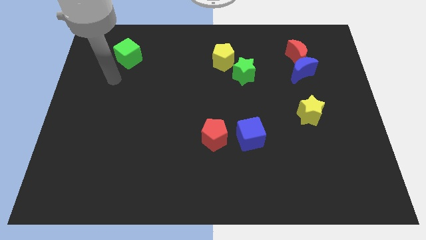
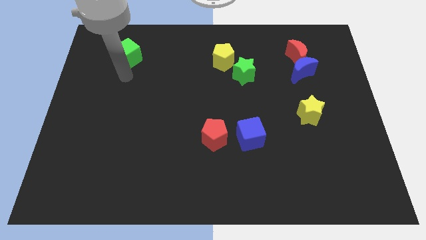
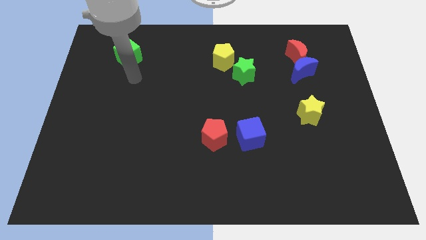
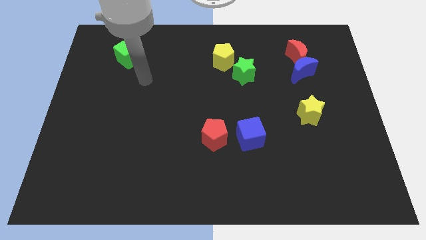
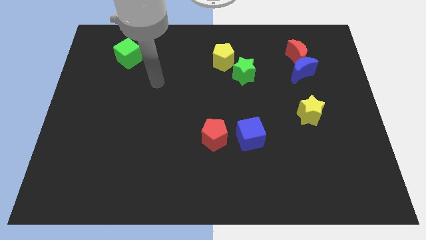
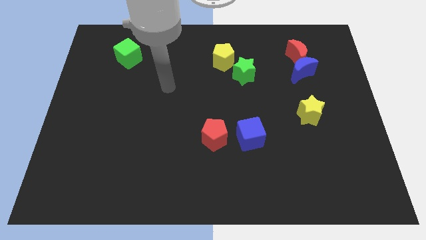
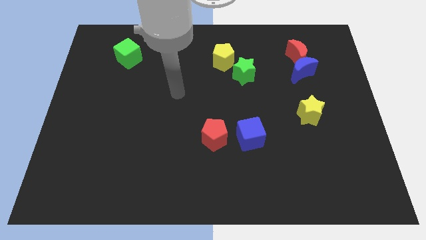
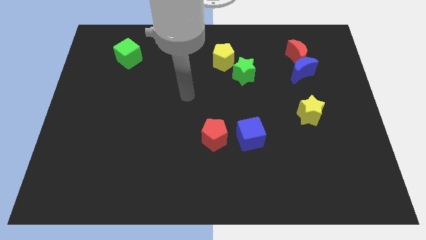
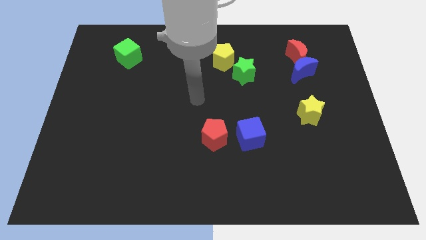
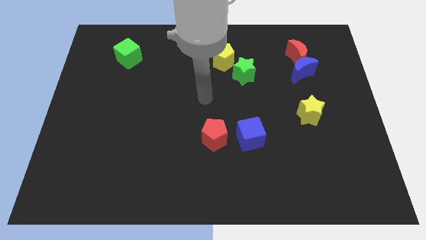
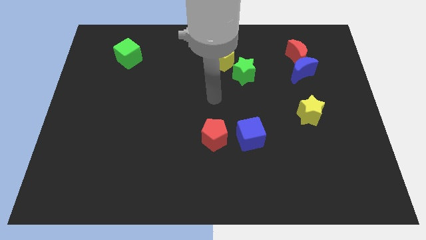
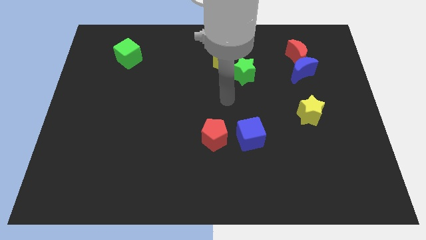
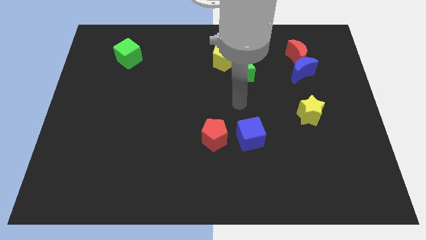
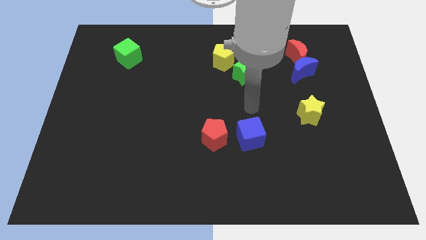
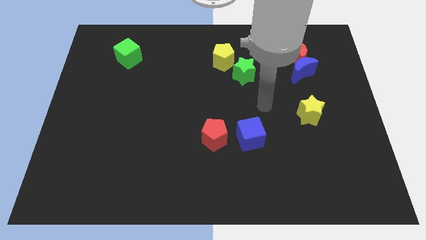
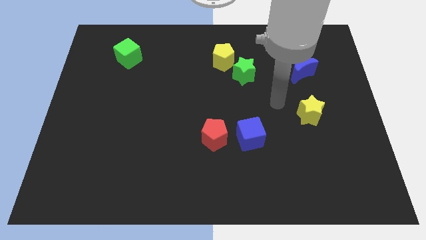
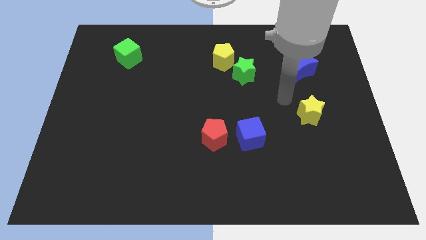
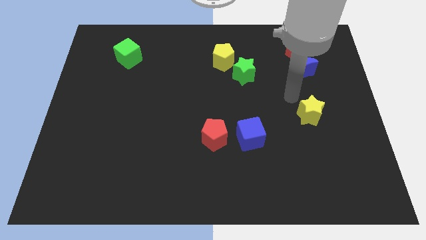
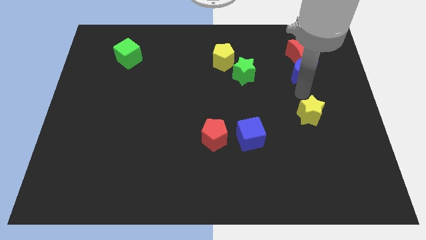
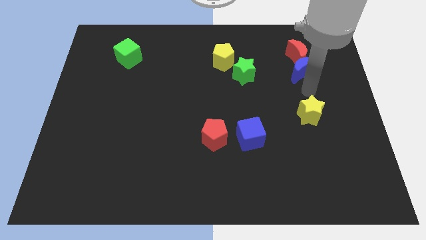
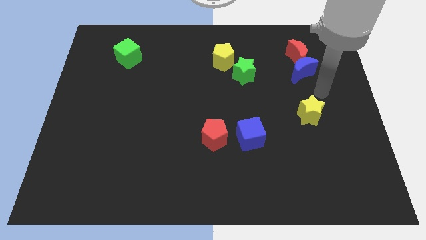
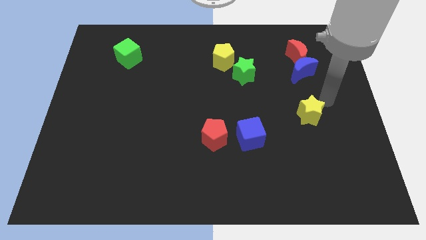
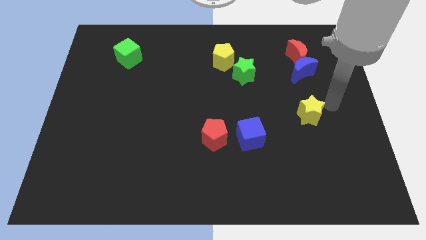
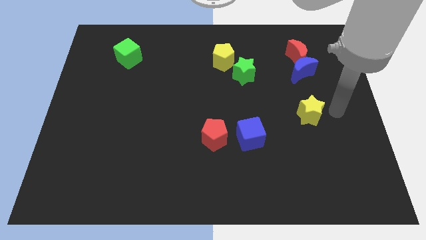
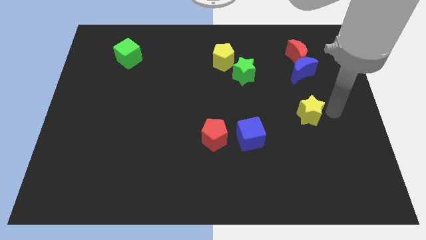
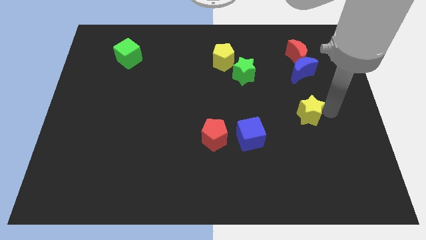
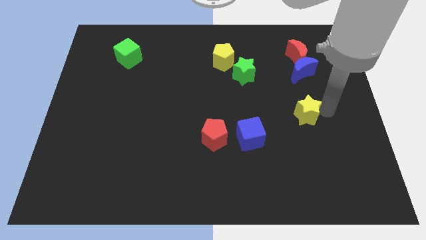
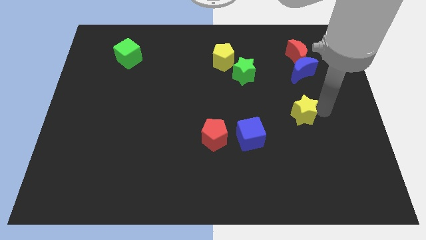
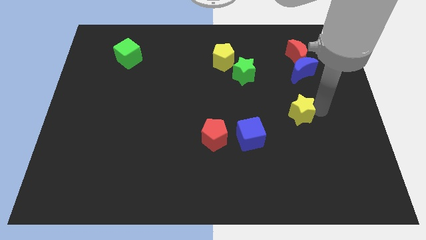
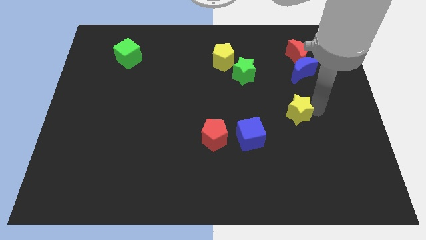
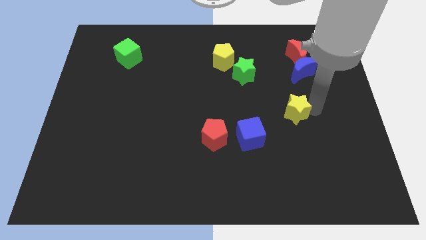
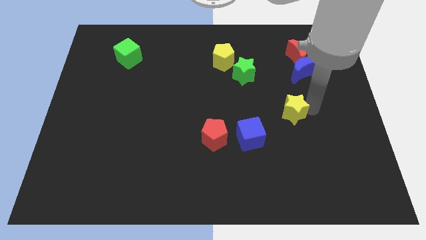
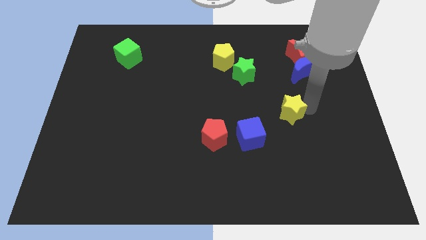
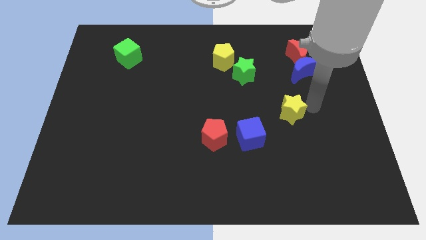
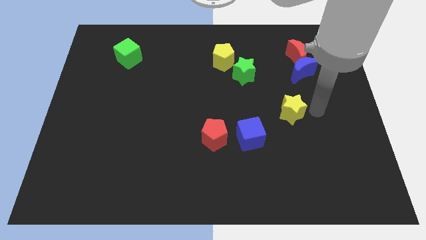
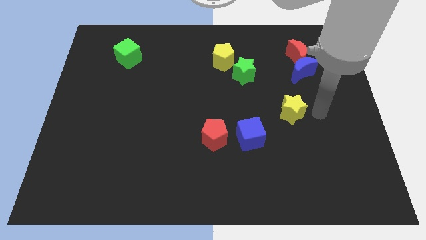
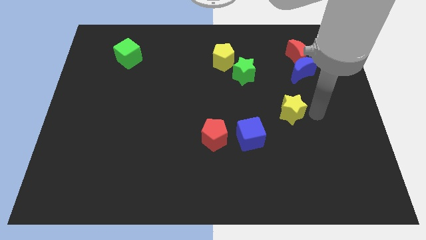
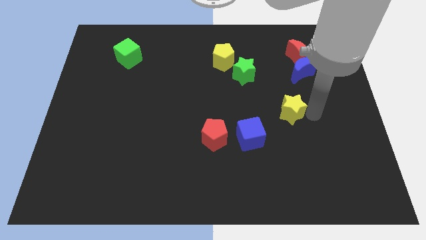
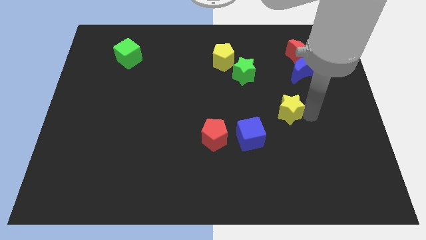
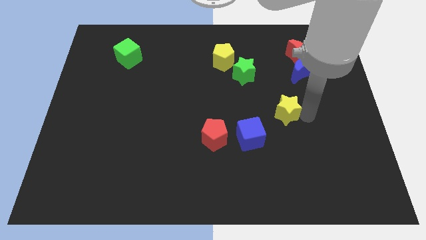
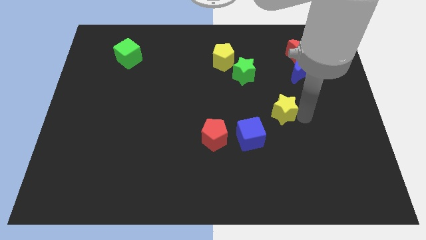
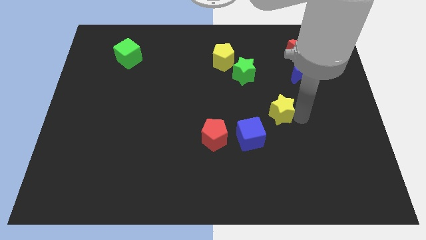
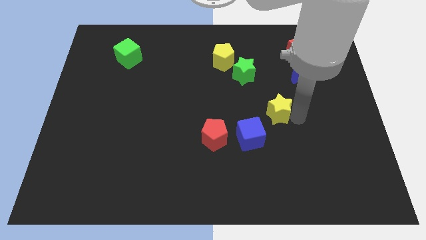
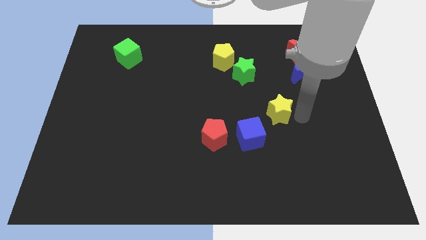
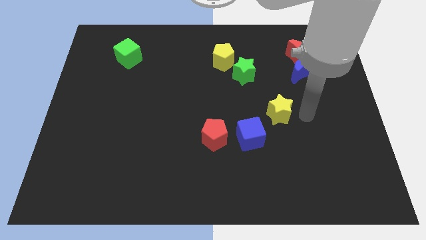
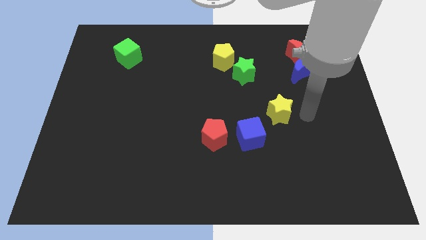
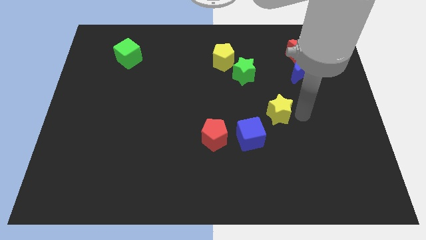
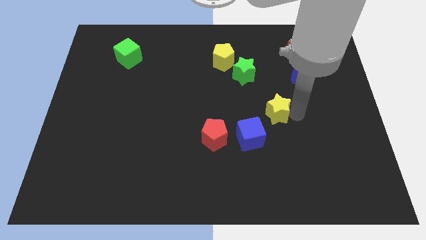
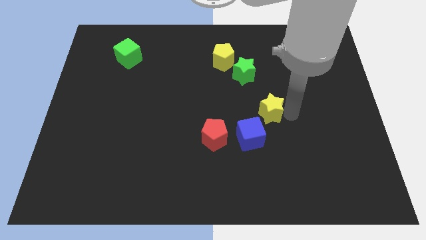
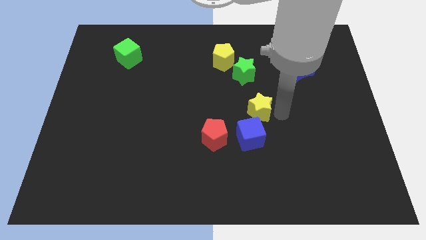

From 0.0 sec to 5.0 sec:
push the yellow star to the middle

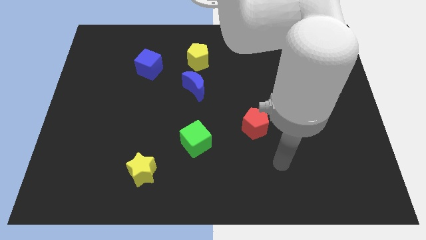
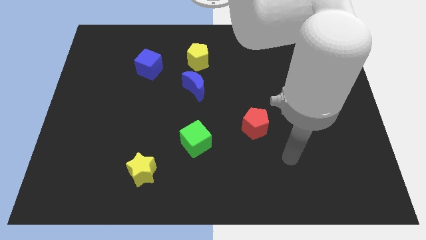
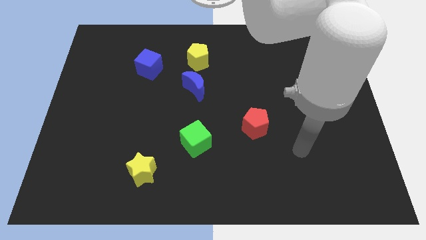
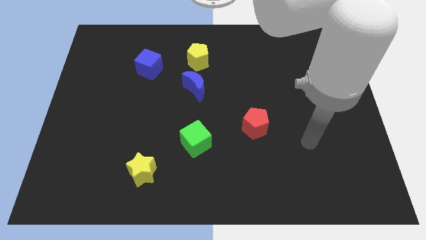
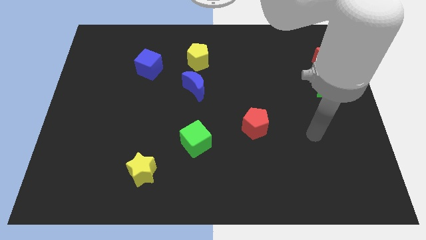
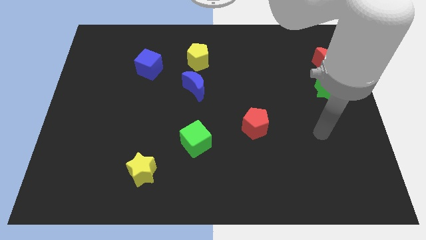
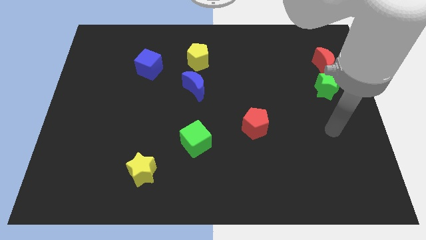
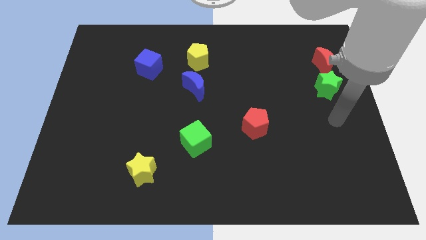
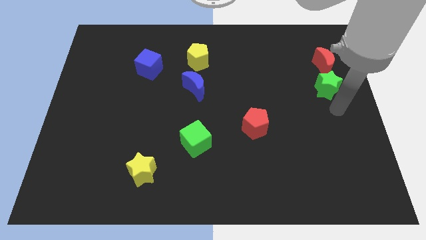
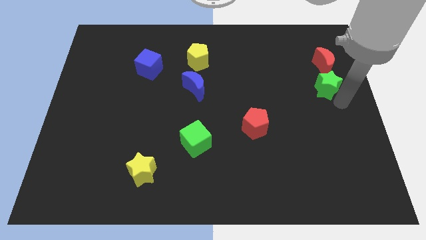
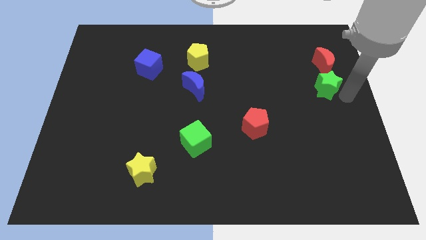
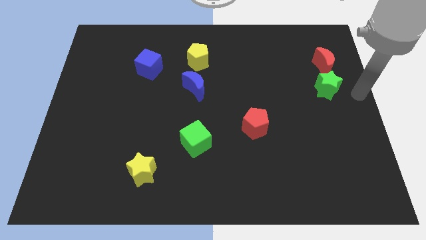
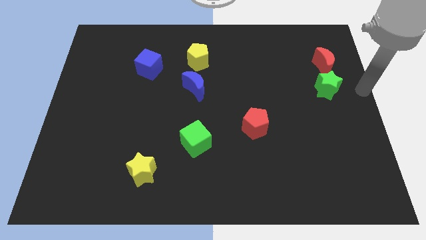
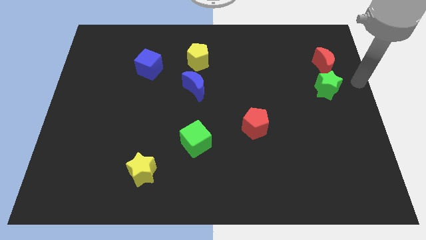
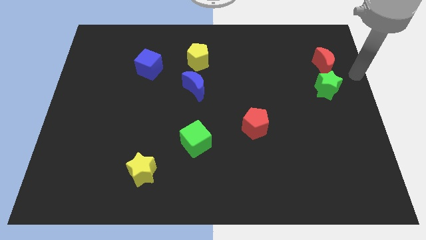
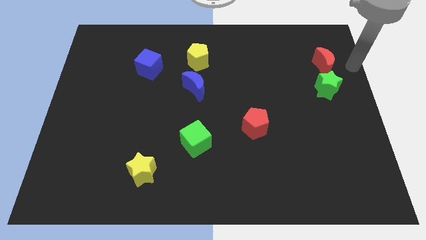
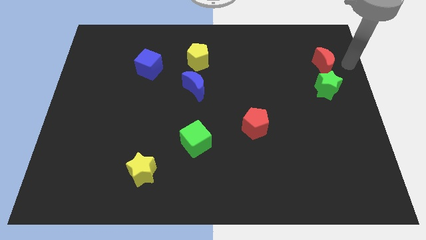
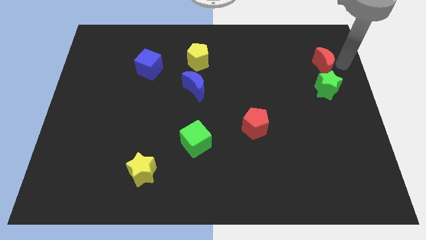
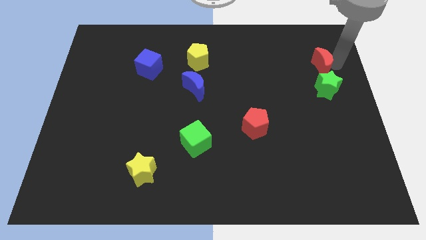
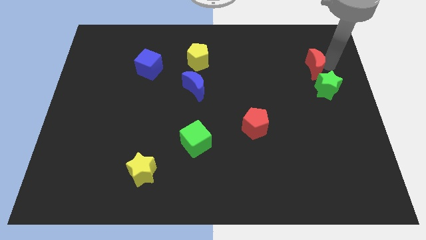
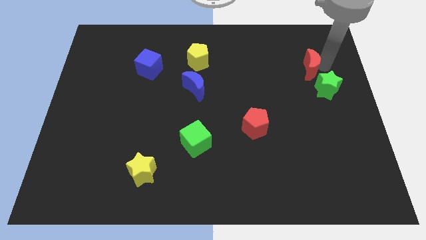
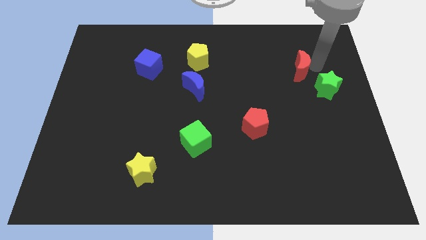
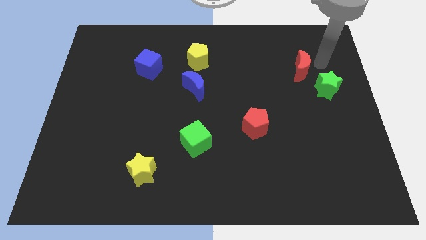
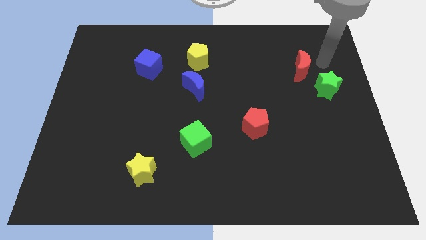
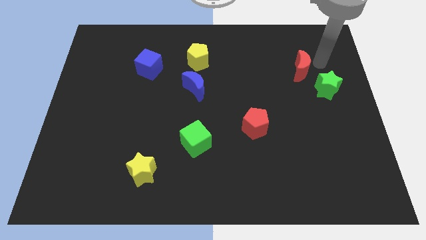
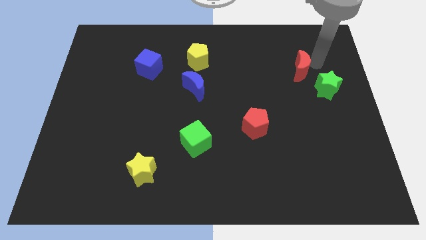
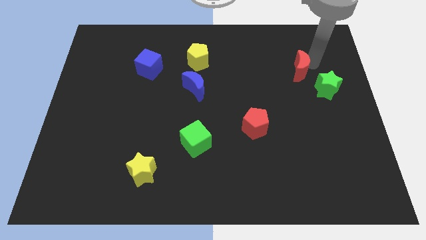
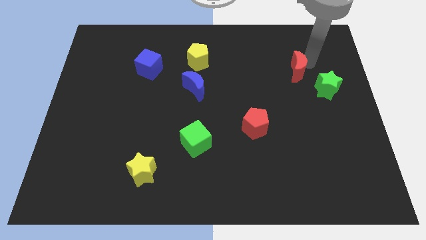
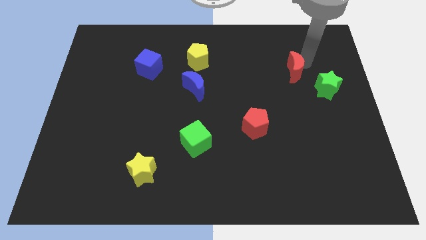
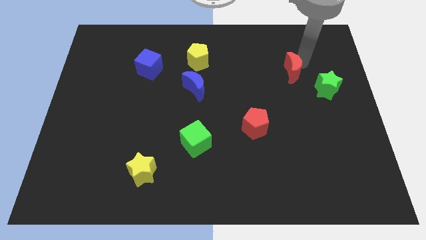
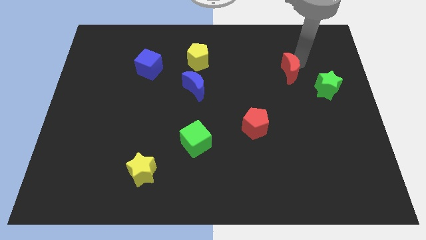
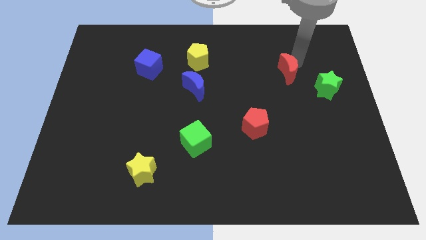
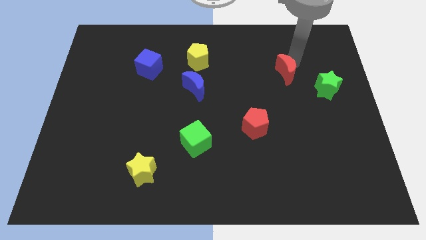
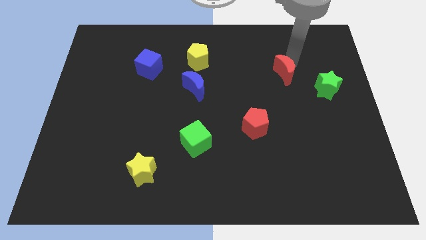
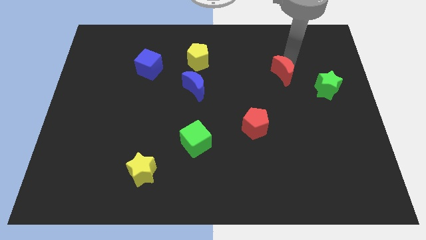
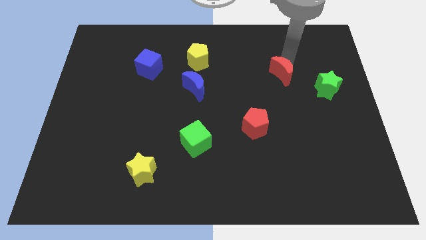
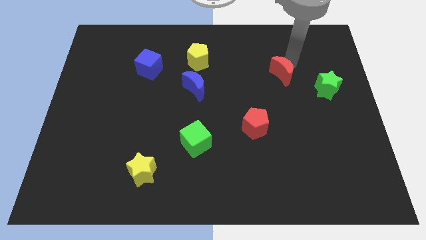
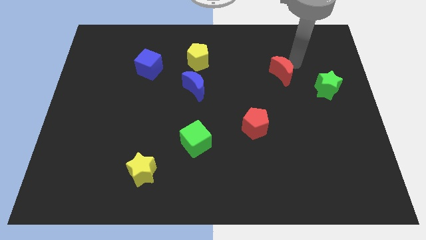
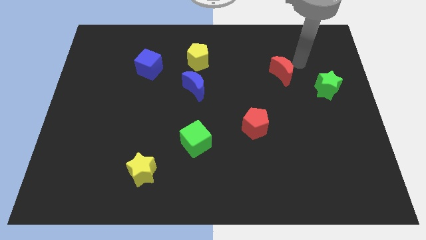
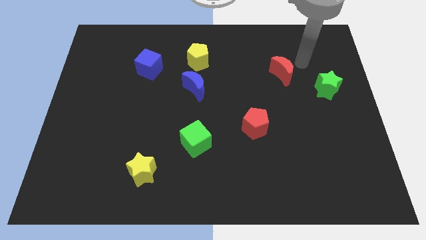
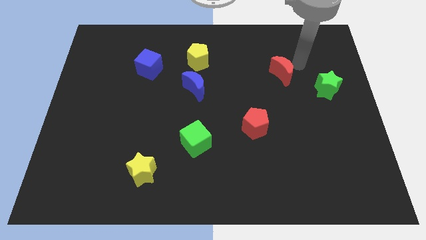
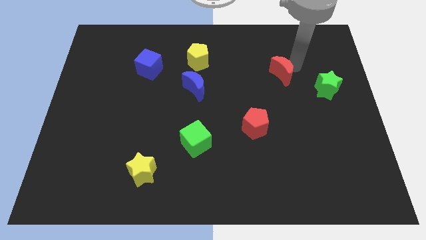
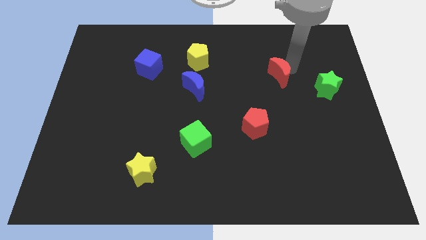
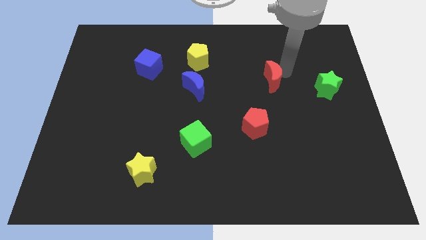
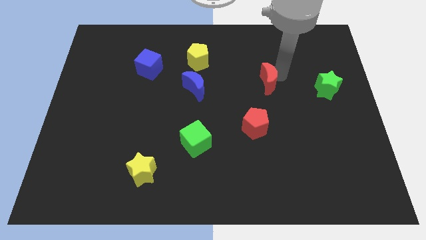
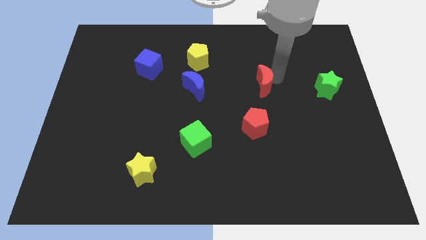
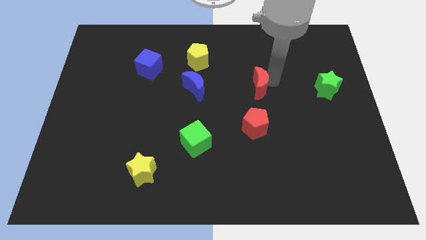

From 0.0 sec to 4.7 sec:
slide the red moon to the middle
